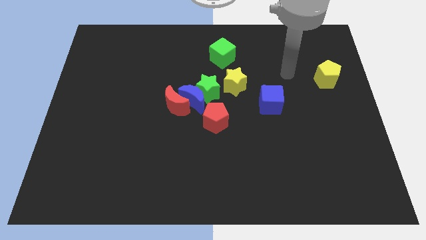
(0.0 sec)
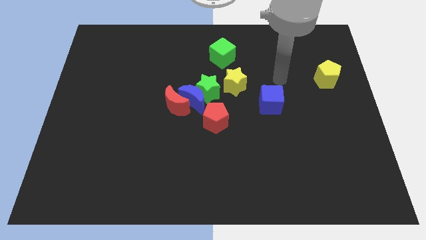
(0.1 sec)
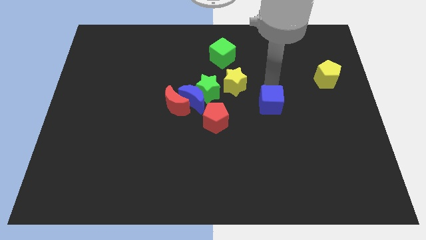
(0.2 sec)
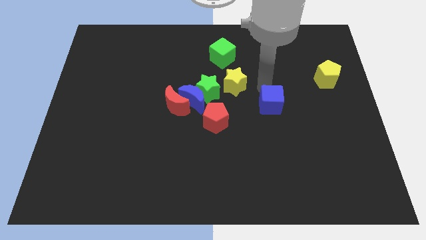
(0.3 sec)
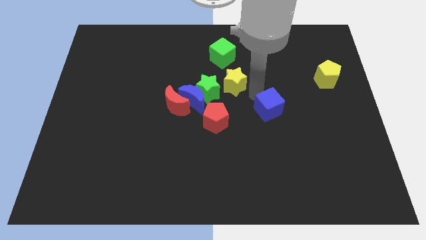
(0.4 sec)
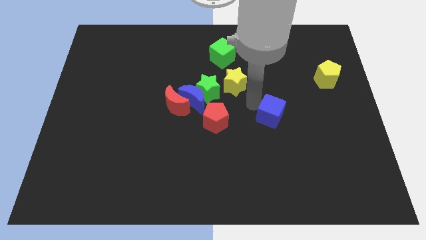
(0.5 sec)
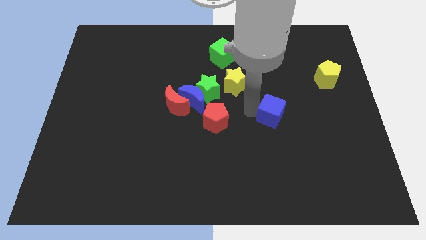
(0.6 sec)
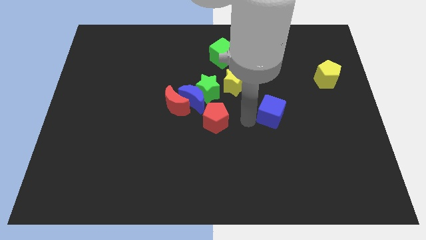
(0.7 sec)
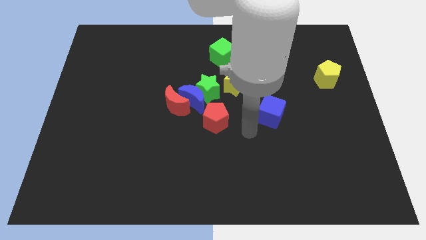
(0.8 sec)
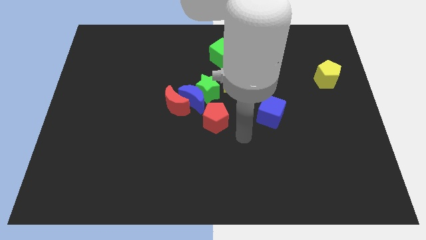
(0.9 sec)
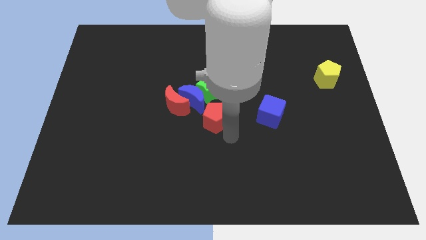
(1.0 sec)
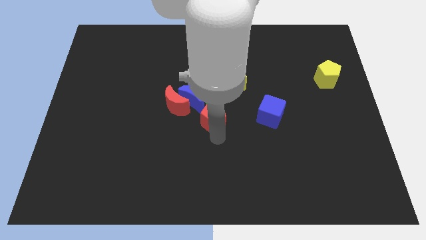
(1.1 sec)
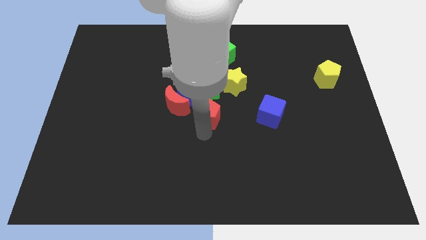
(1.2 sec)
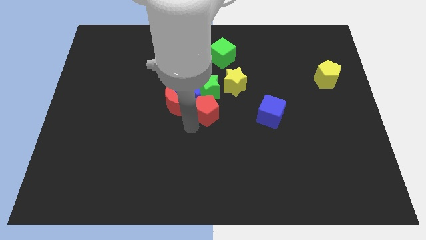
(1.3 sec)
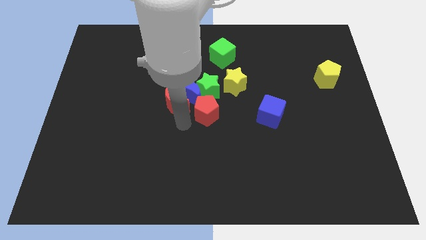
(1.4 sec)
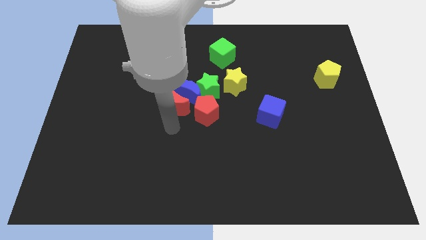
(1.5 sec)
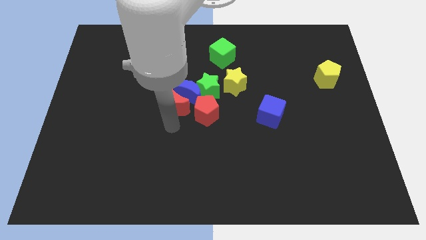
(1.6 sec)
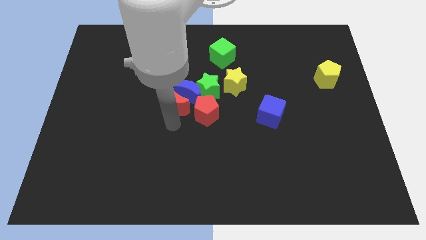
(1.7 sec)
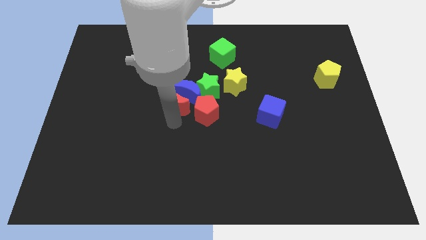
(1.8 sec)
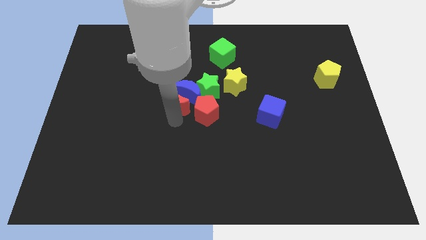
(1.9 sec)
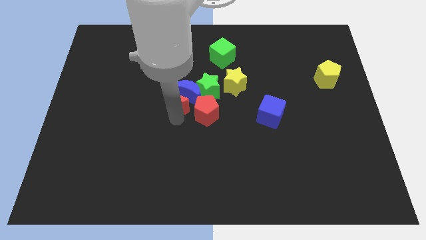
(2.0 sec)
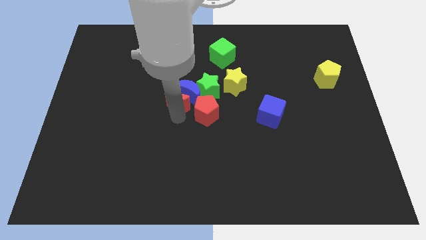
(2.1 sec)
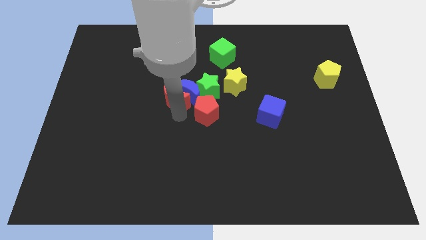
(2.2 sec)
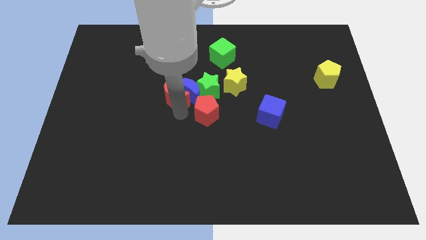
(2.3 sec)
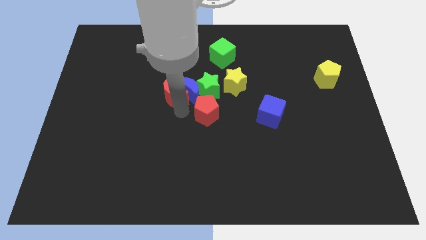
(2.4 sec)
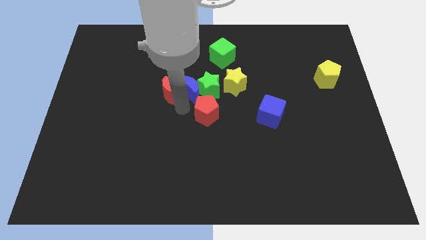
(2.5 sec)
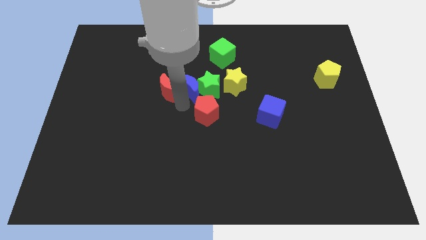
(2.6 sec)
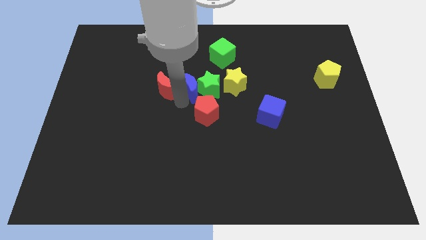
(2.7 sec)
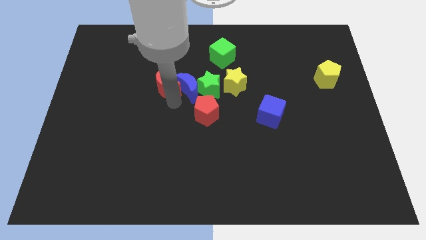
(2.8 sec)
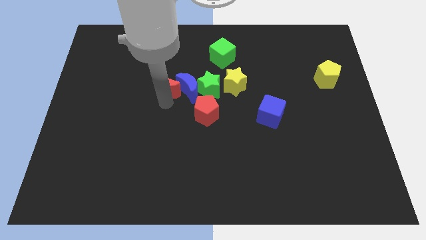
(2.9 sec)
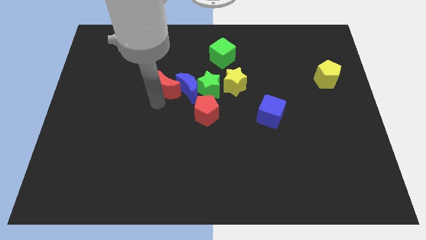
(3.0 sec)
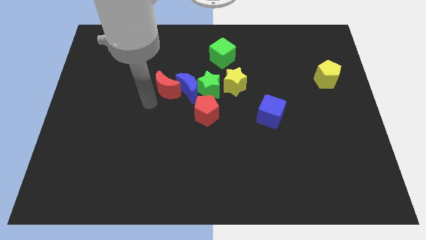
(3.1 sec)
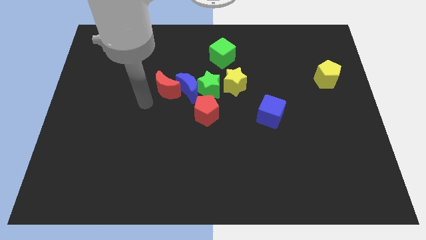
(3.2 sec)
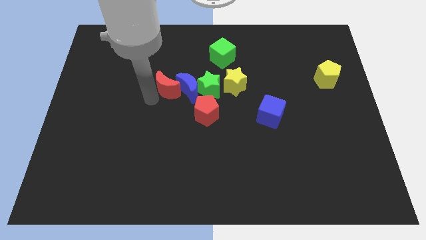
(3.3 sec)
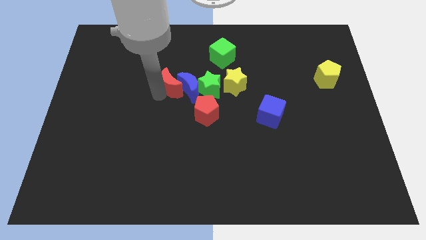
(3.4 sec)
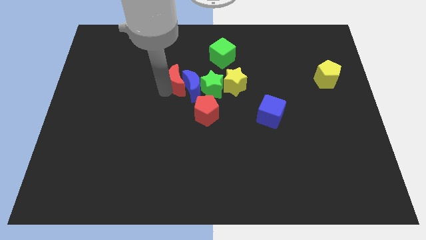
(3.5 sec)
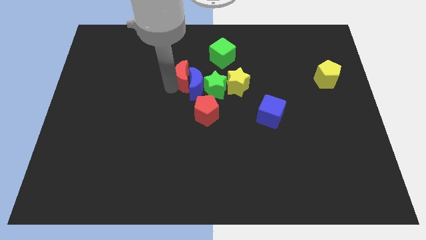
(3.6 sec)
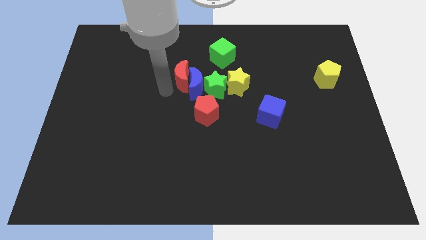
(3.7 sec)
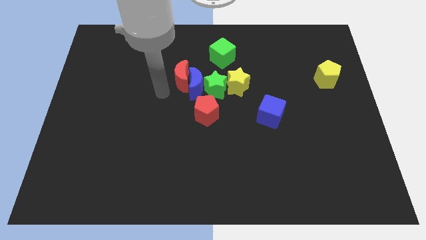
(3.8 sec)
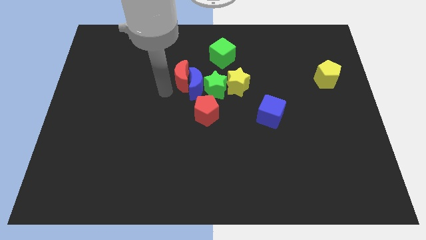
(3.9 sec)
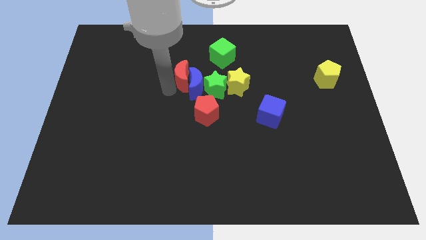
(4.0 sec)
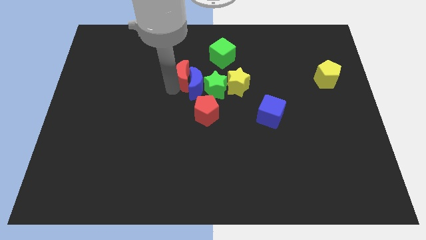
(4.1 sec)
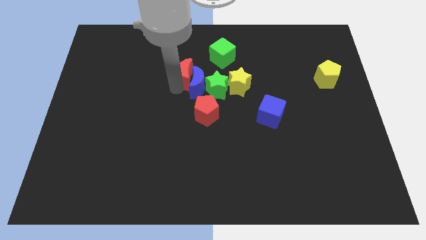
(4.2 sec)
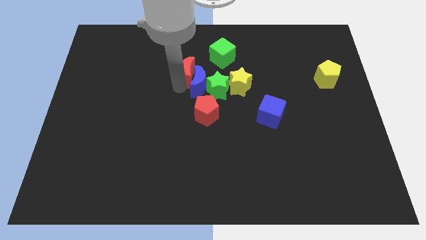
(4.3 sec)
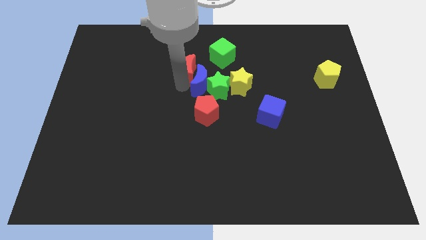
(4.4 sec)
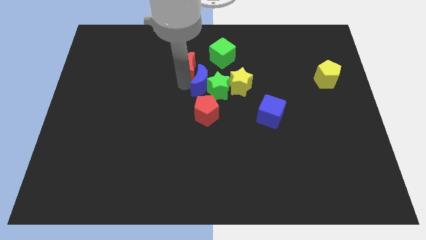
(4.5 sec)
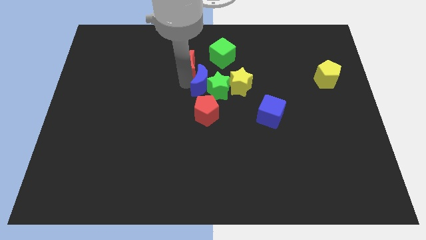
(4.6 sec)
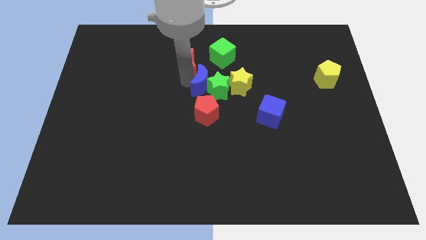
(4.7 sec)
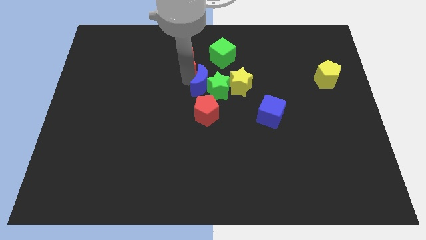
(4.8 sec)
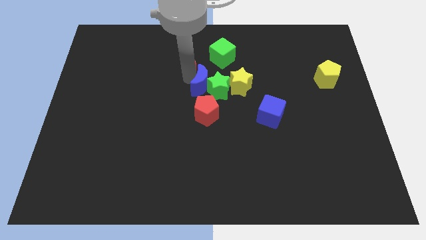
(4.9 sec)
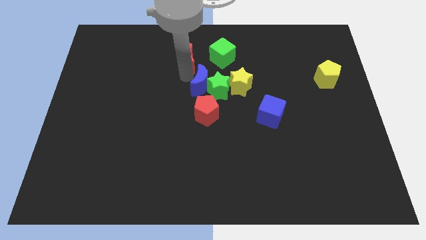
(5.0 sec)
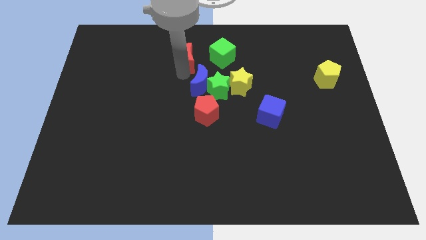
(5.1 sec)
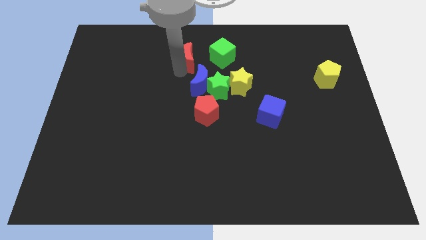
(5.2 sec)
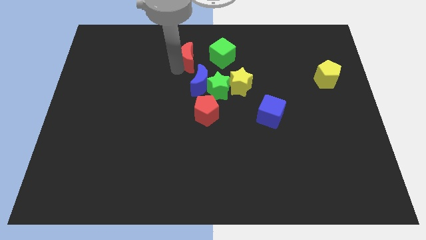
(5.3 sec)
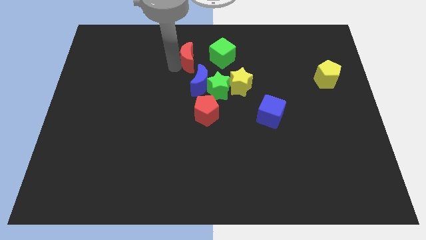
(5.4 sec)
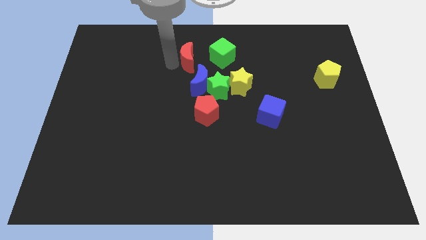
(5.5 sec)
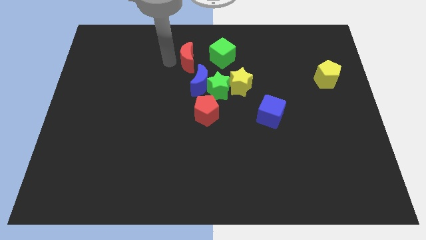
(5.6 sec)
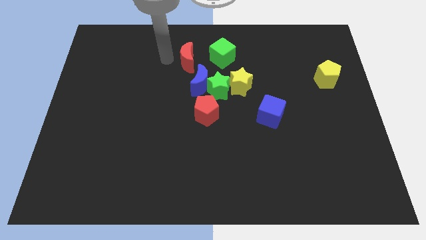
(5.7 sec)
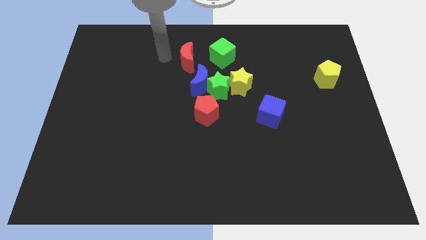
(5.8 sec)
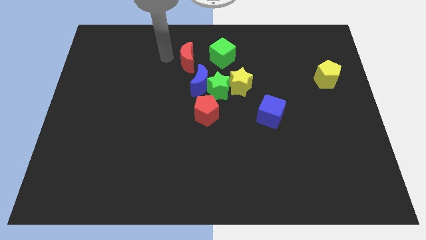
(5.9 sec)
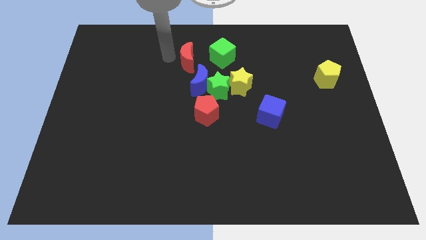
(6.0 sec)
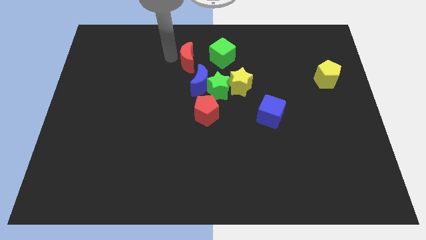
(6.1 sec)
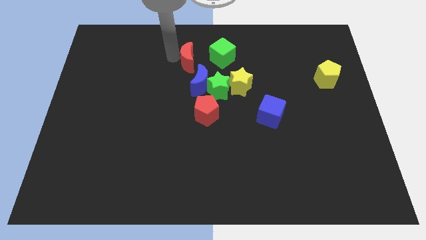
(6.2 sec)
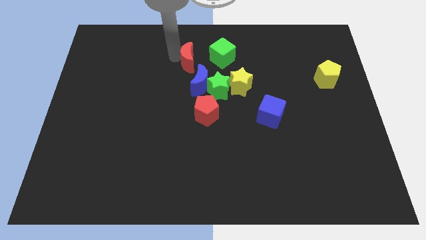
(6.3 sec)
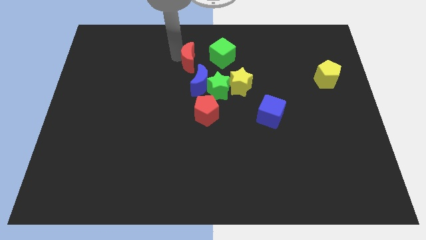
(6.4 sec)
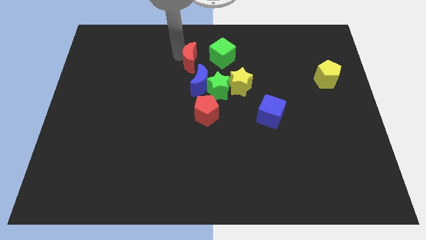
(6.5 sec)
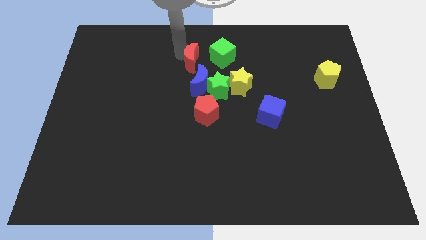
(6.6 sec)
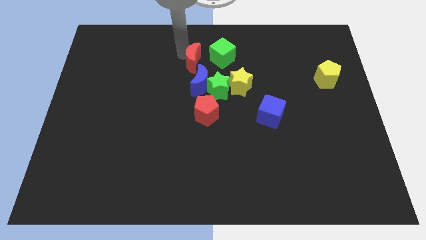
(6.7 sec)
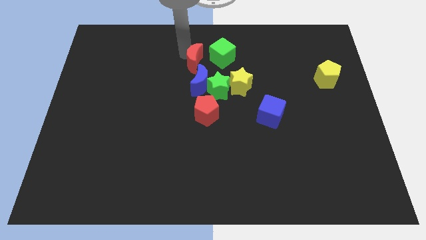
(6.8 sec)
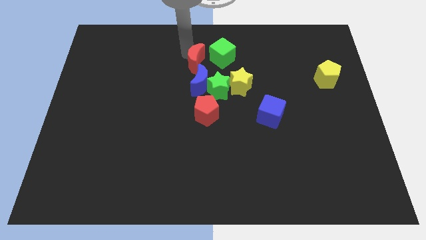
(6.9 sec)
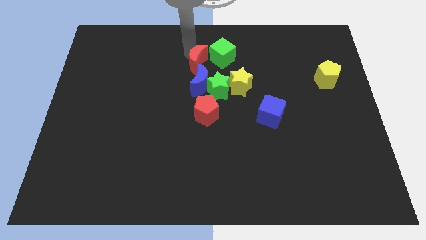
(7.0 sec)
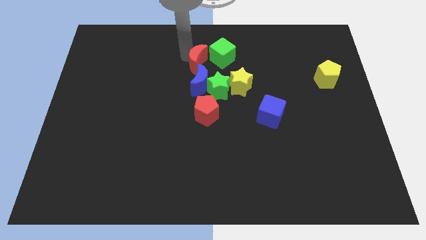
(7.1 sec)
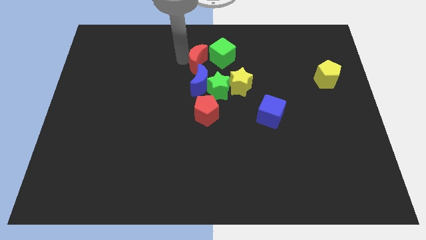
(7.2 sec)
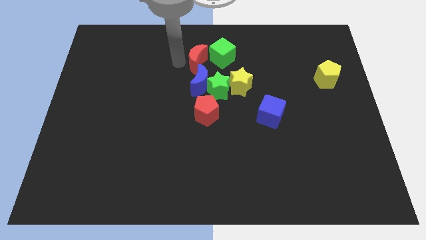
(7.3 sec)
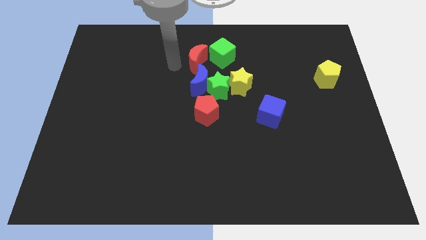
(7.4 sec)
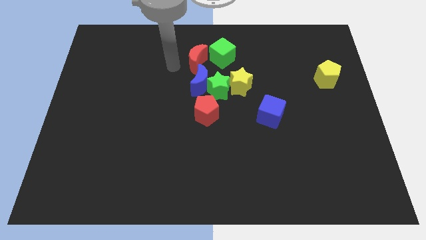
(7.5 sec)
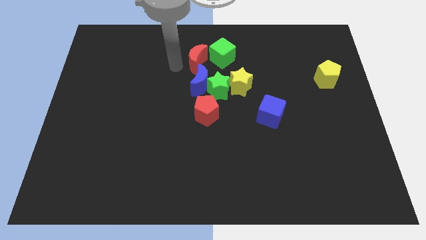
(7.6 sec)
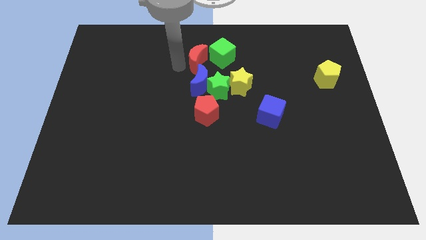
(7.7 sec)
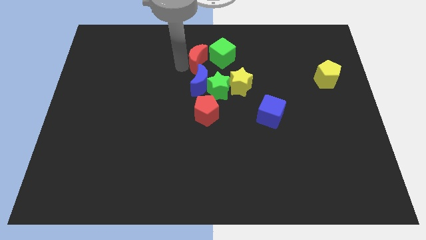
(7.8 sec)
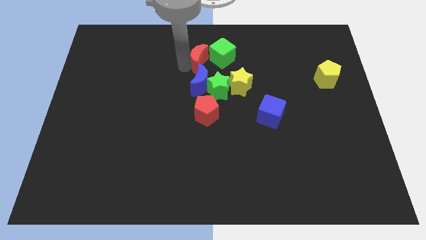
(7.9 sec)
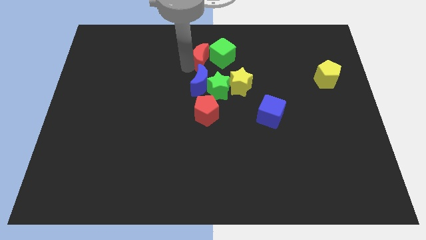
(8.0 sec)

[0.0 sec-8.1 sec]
put the red moon to the green cube

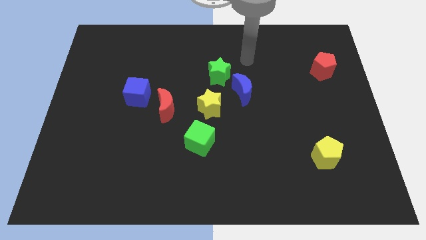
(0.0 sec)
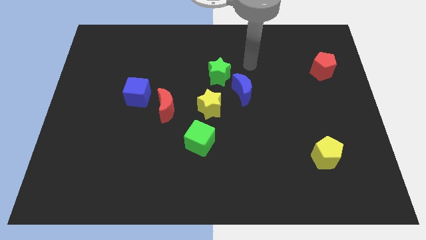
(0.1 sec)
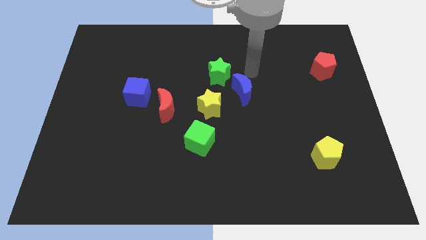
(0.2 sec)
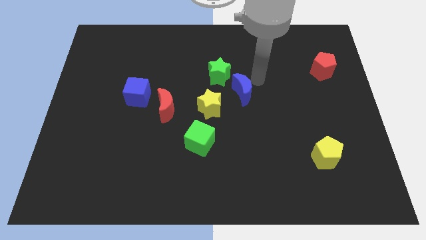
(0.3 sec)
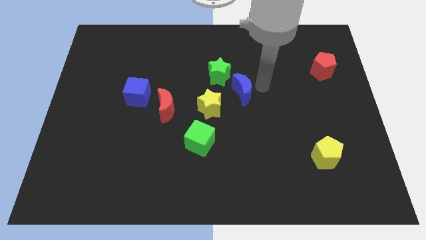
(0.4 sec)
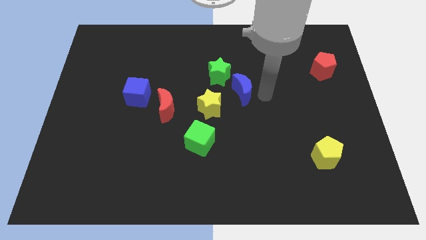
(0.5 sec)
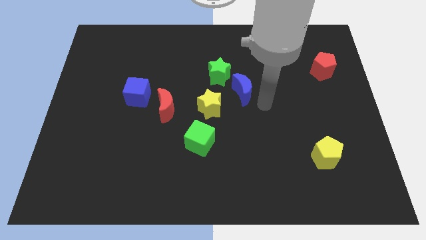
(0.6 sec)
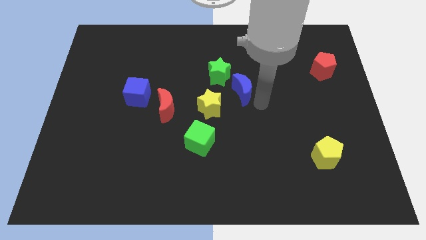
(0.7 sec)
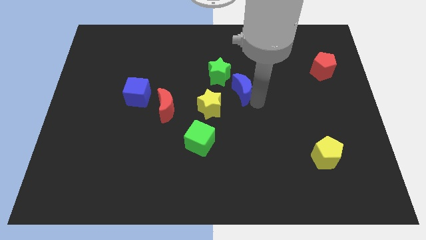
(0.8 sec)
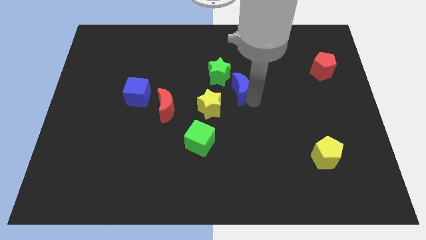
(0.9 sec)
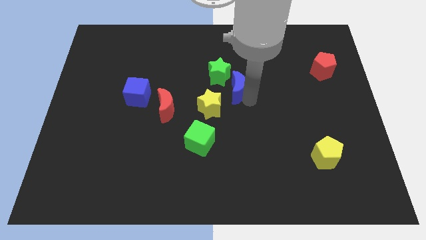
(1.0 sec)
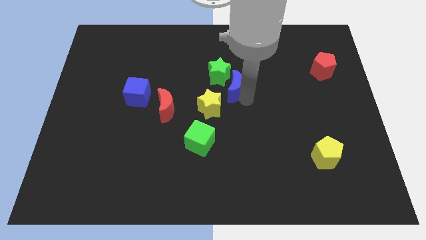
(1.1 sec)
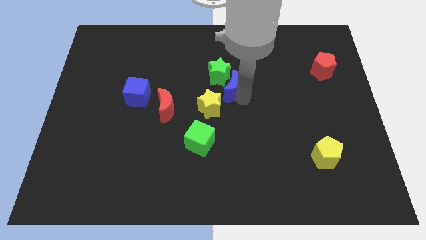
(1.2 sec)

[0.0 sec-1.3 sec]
move the blue moon next to the green star
